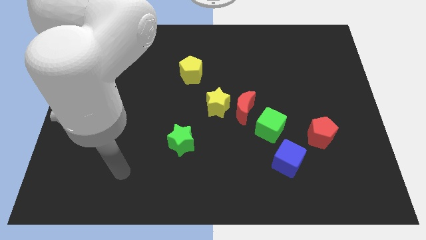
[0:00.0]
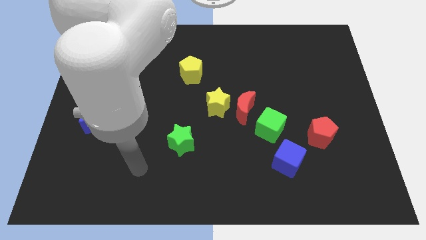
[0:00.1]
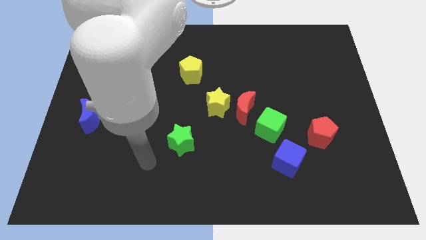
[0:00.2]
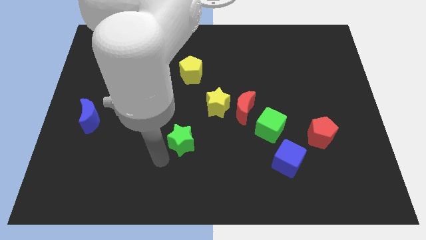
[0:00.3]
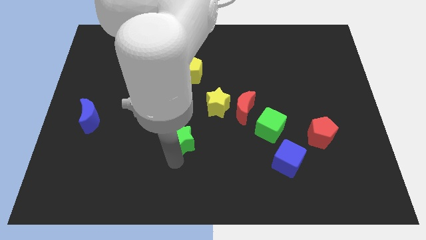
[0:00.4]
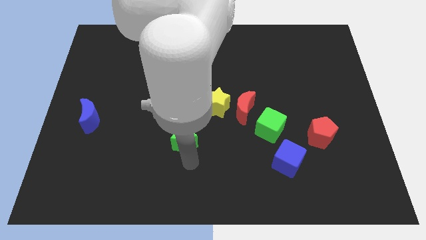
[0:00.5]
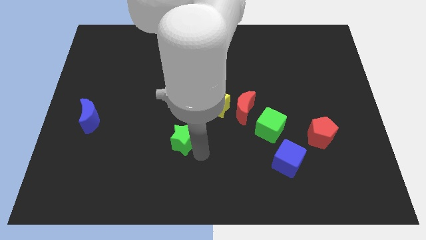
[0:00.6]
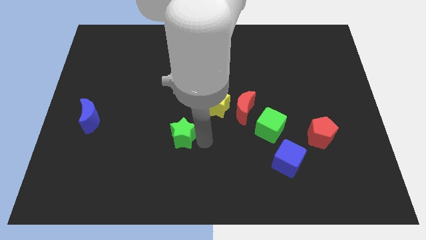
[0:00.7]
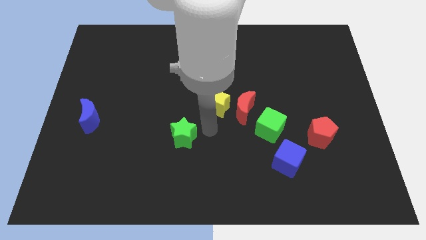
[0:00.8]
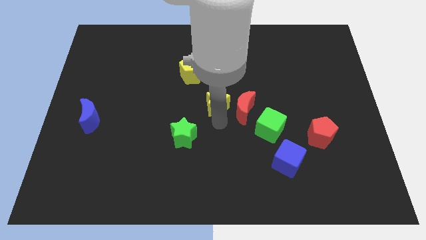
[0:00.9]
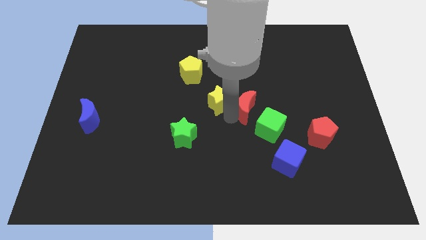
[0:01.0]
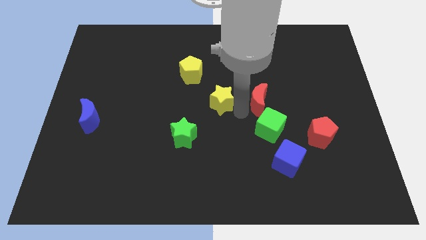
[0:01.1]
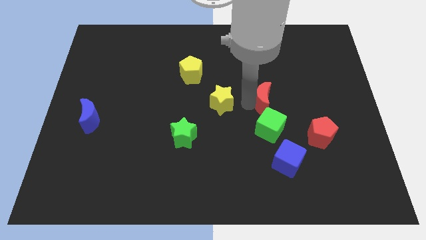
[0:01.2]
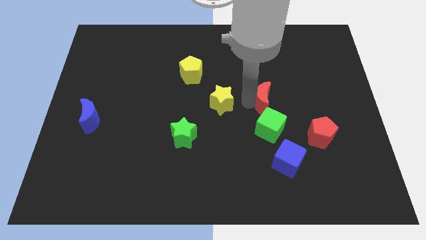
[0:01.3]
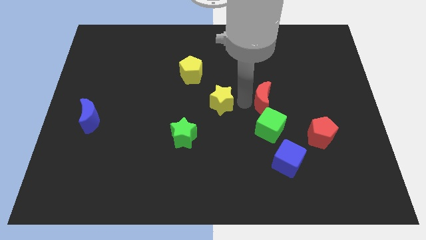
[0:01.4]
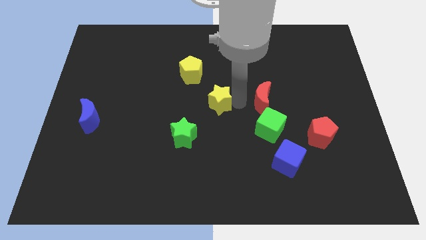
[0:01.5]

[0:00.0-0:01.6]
pull the yellow star apart from the red moon

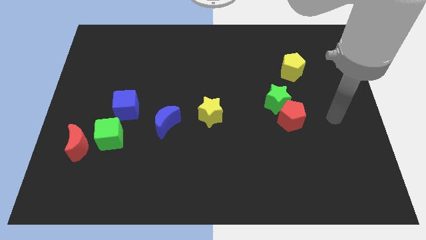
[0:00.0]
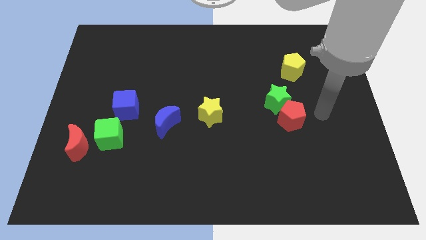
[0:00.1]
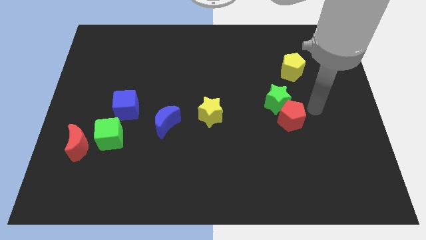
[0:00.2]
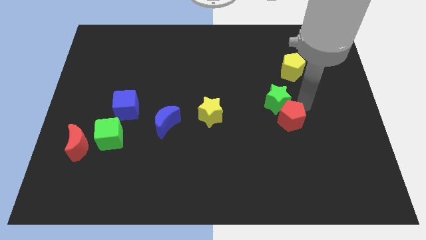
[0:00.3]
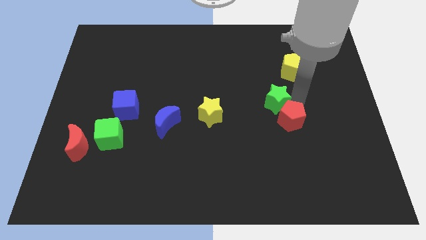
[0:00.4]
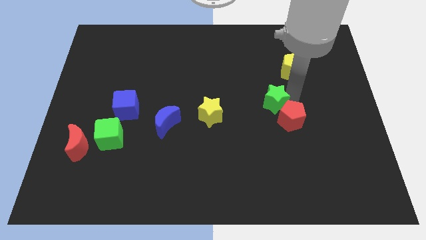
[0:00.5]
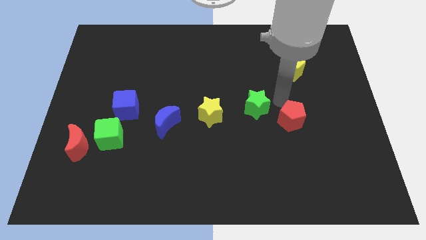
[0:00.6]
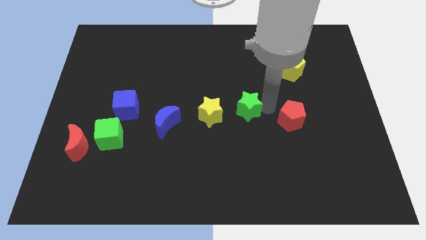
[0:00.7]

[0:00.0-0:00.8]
pull the red pentagon apart from the green star

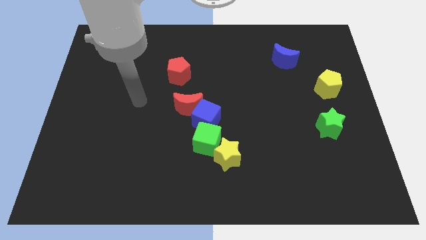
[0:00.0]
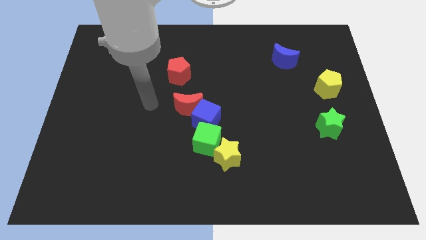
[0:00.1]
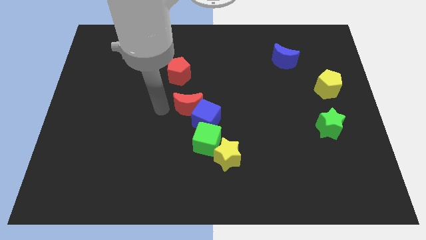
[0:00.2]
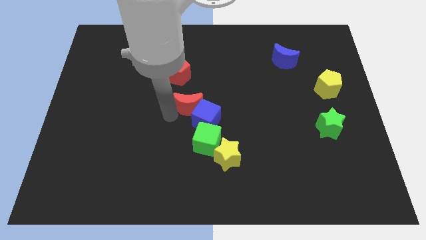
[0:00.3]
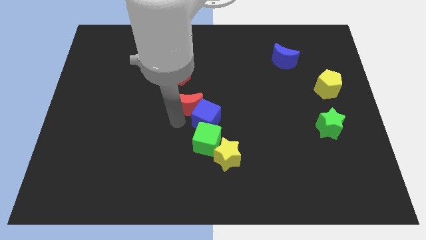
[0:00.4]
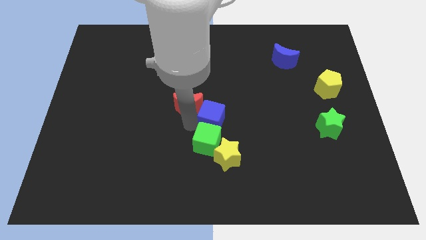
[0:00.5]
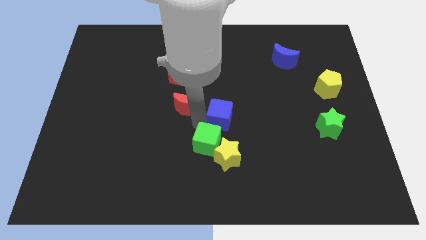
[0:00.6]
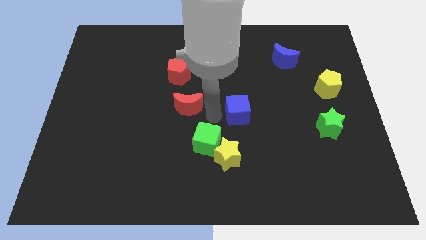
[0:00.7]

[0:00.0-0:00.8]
pull the red moon apart from the blue cube

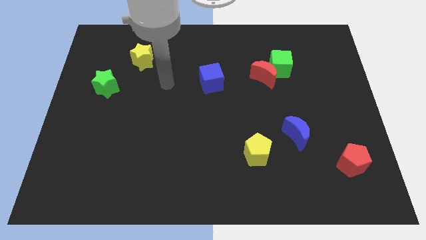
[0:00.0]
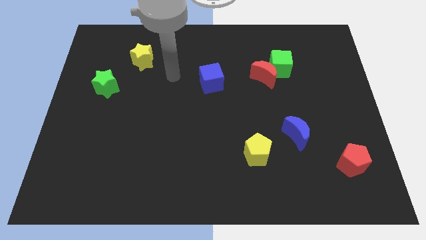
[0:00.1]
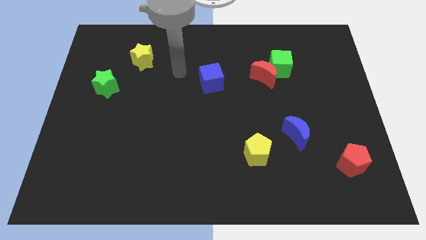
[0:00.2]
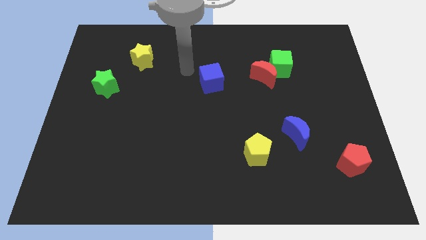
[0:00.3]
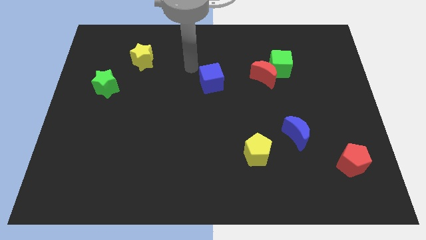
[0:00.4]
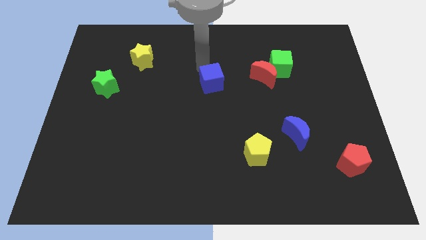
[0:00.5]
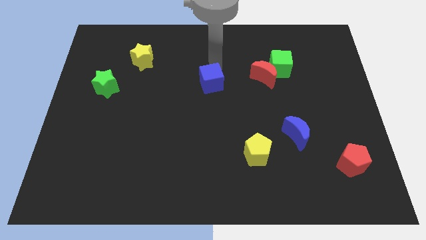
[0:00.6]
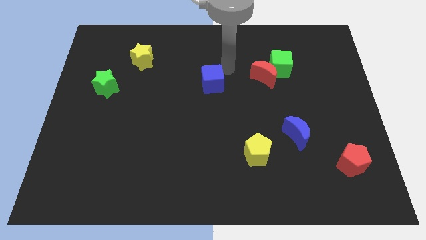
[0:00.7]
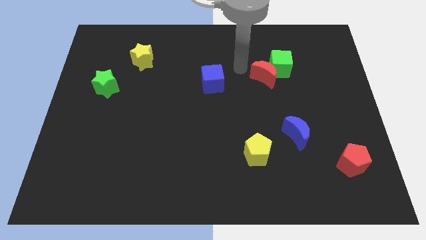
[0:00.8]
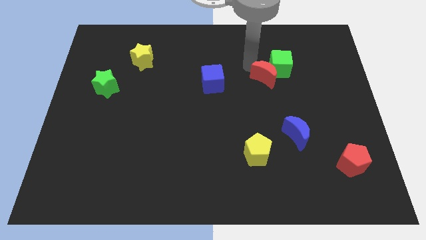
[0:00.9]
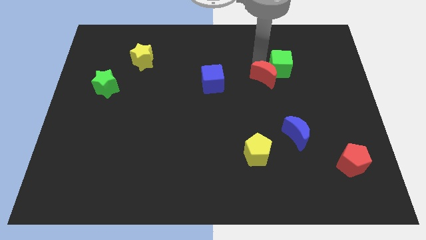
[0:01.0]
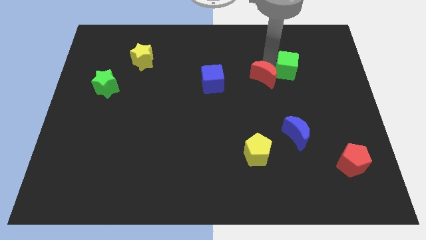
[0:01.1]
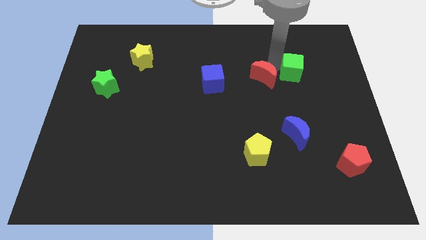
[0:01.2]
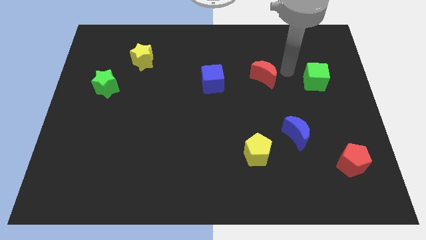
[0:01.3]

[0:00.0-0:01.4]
move the red moon away from the green cube

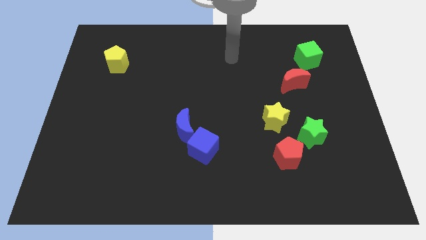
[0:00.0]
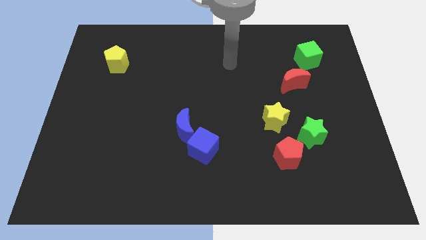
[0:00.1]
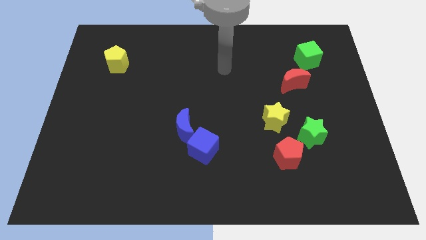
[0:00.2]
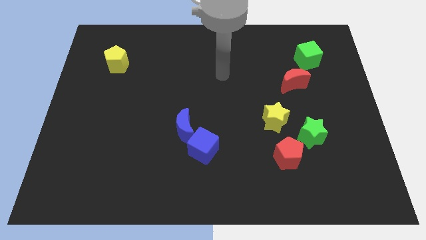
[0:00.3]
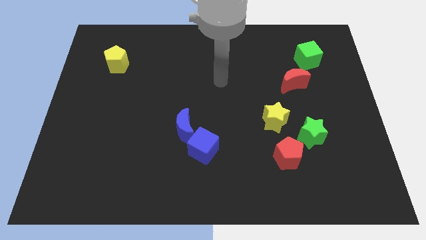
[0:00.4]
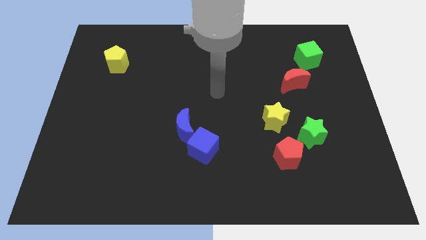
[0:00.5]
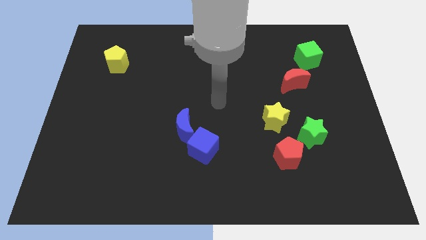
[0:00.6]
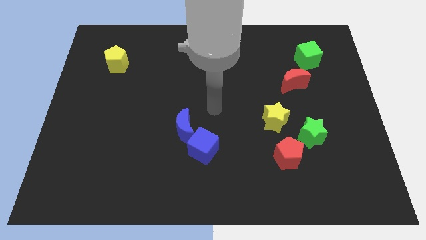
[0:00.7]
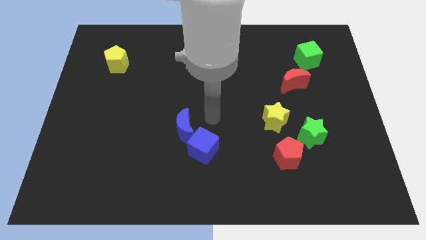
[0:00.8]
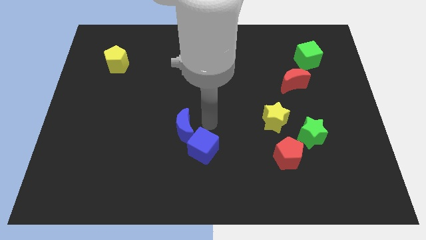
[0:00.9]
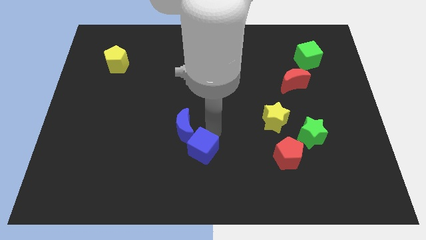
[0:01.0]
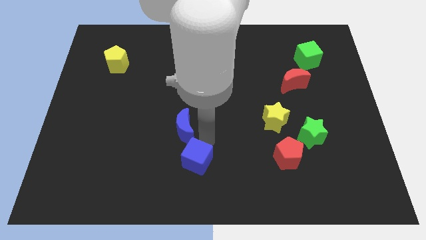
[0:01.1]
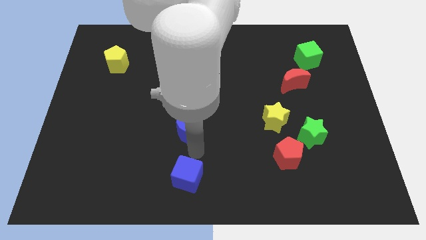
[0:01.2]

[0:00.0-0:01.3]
separate the blue moon from the blue cube

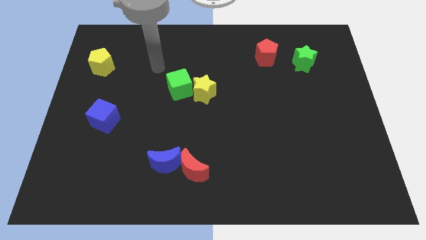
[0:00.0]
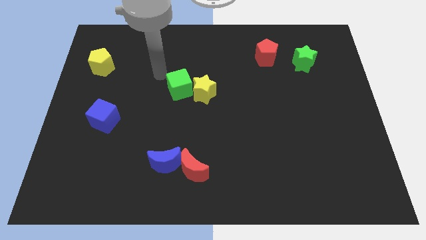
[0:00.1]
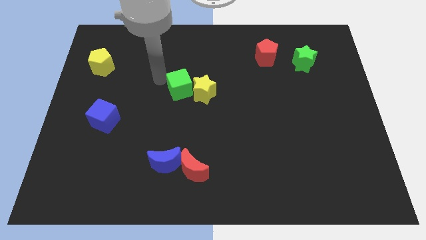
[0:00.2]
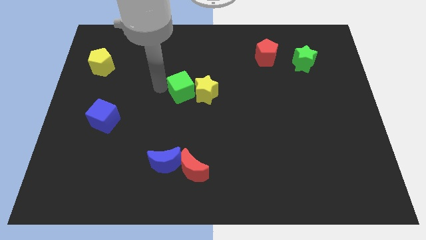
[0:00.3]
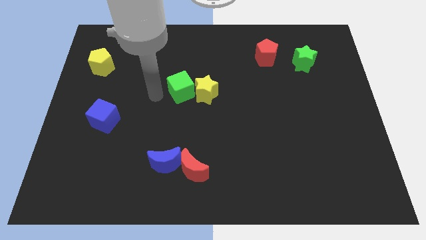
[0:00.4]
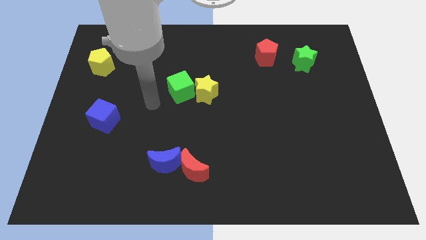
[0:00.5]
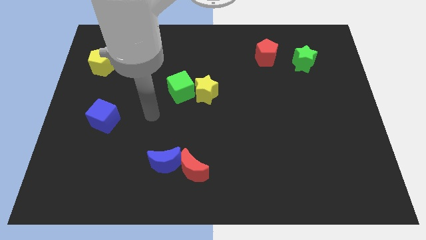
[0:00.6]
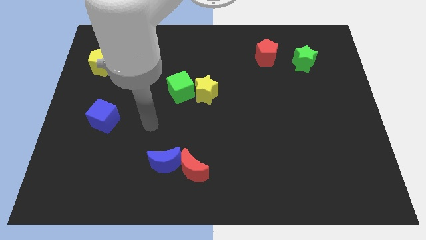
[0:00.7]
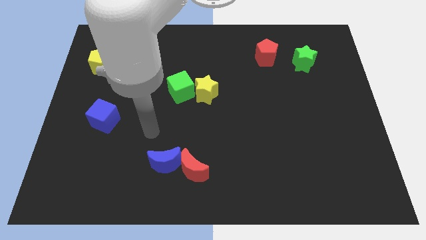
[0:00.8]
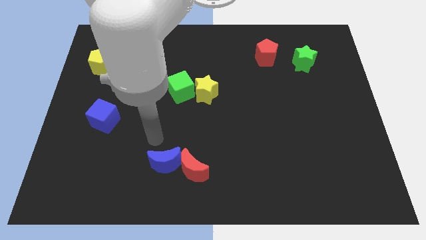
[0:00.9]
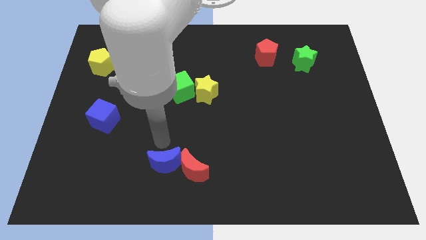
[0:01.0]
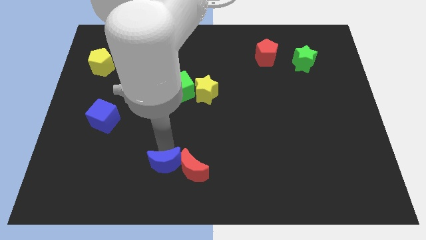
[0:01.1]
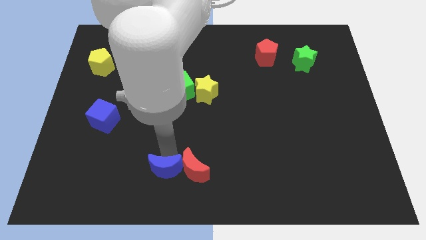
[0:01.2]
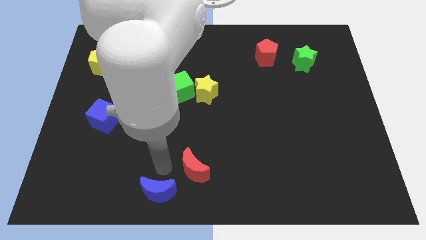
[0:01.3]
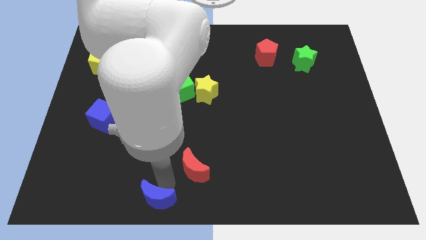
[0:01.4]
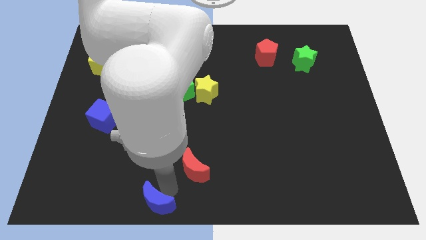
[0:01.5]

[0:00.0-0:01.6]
pull the red moon apart from the blue moon

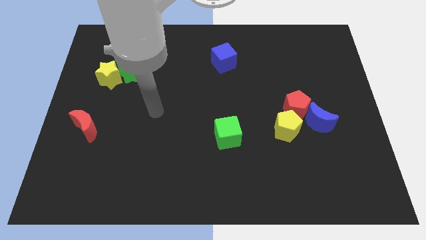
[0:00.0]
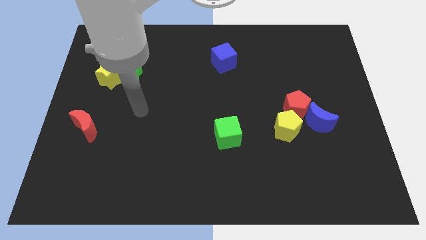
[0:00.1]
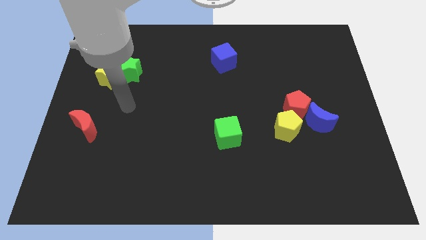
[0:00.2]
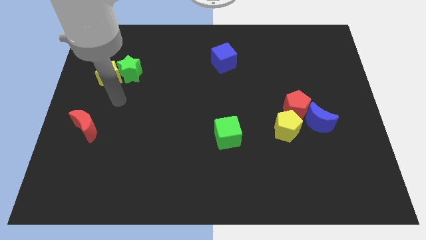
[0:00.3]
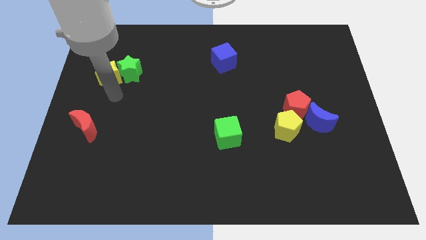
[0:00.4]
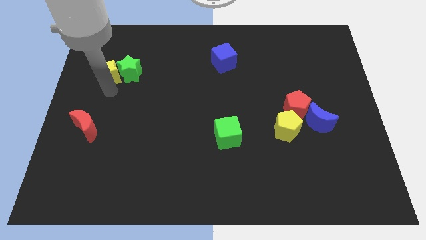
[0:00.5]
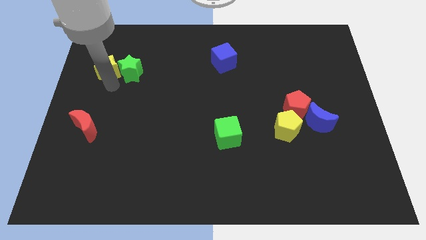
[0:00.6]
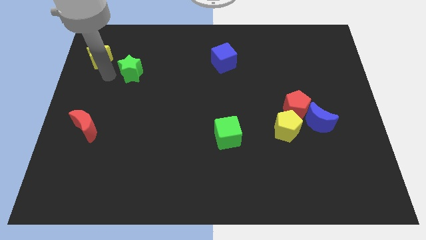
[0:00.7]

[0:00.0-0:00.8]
pull the green star apart from the yellow star

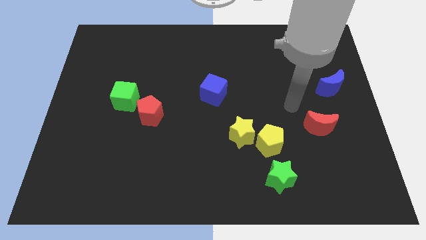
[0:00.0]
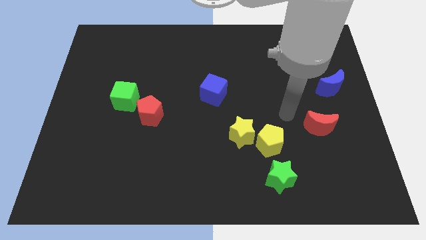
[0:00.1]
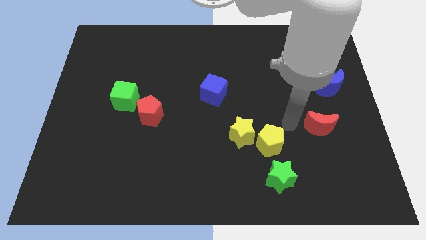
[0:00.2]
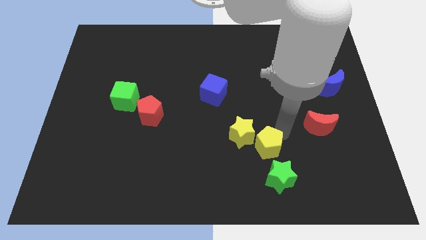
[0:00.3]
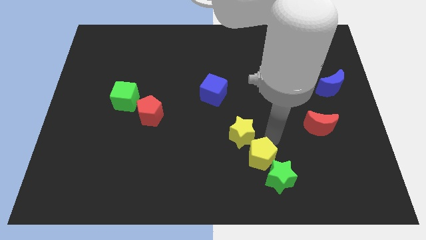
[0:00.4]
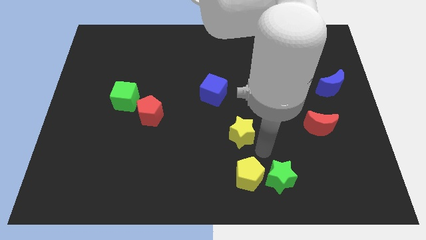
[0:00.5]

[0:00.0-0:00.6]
separate the yellow star from the yellow pentagon

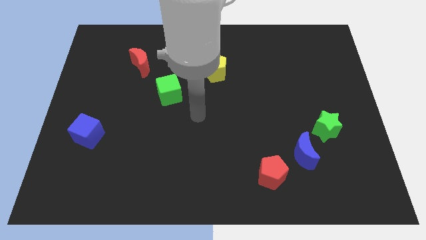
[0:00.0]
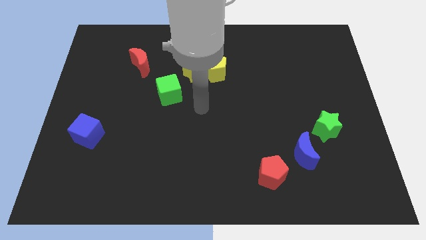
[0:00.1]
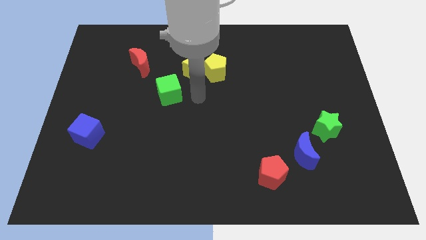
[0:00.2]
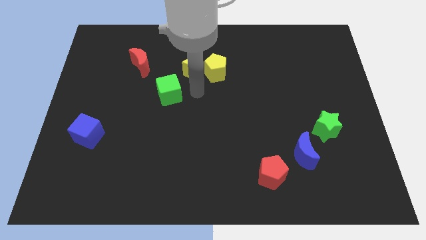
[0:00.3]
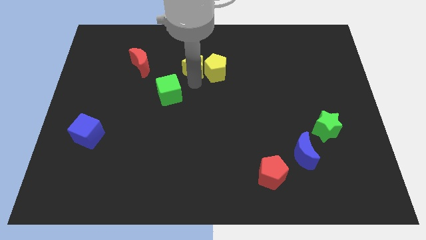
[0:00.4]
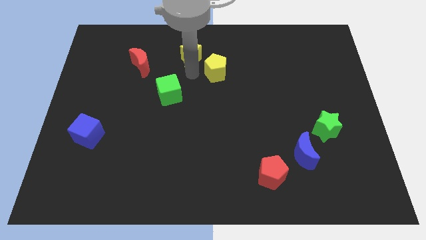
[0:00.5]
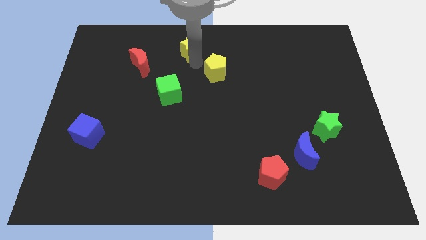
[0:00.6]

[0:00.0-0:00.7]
move the yellow pentagon away from the yellow star
